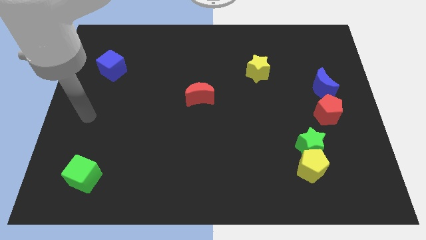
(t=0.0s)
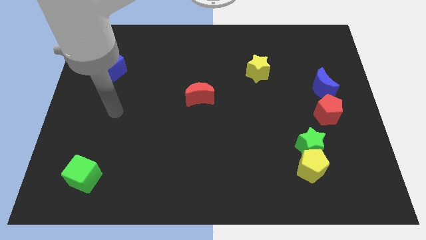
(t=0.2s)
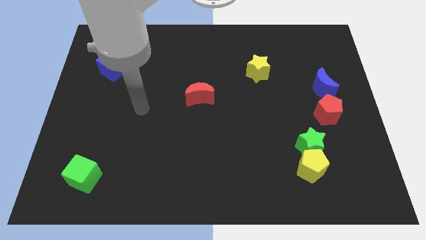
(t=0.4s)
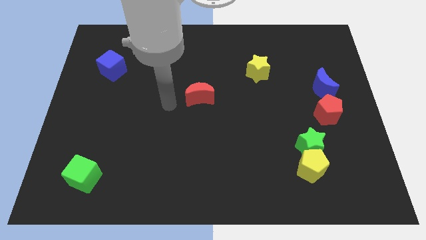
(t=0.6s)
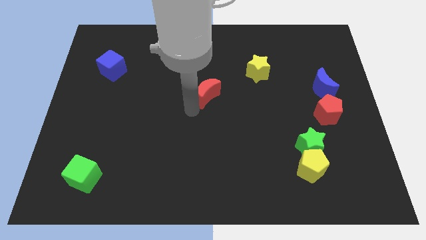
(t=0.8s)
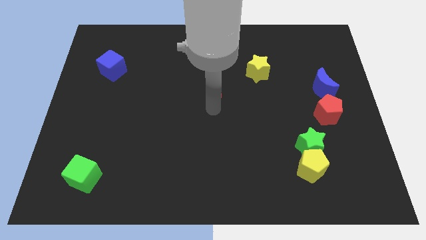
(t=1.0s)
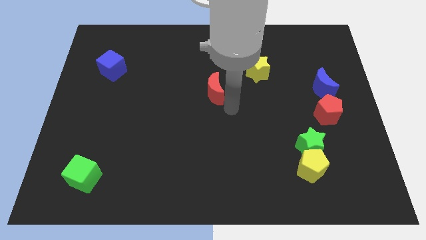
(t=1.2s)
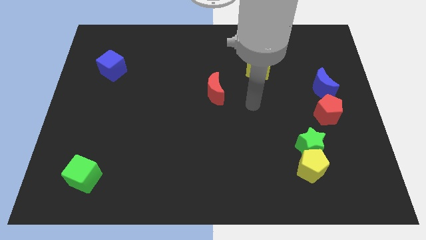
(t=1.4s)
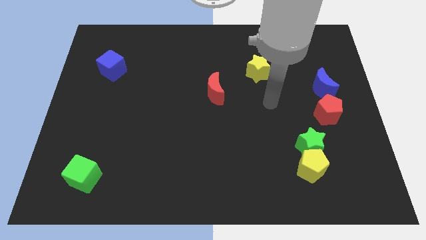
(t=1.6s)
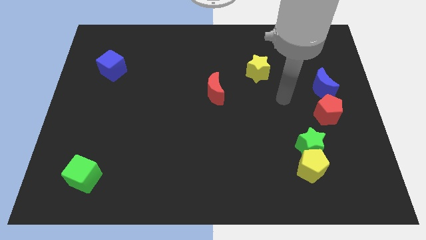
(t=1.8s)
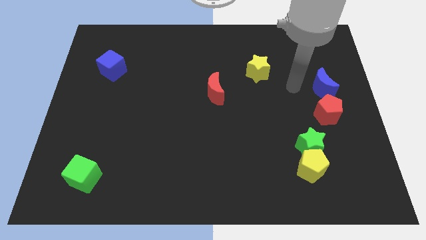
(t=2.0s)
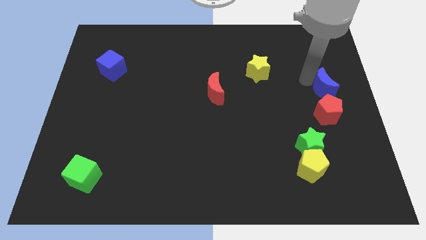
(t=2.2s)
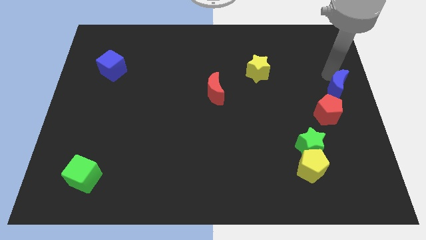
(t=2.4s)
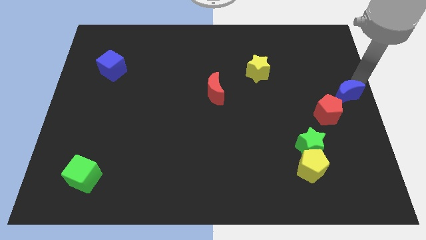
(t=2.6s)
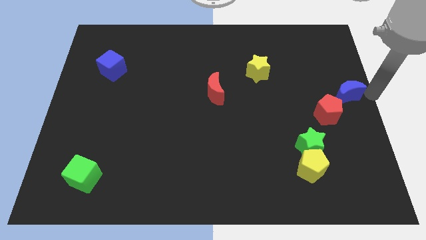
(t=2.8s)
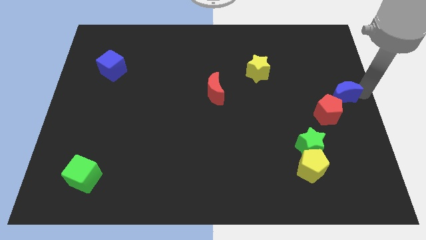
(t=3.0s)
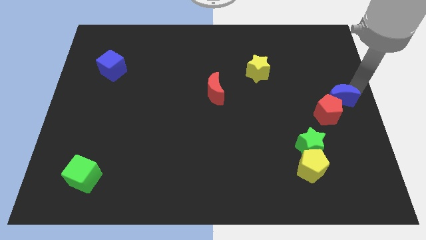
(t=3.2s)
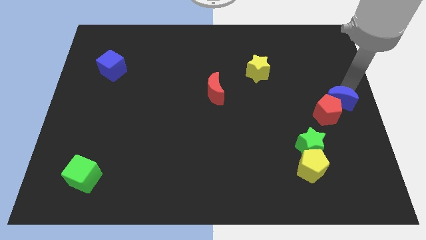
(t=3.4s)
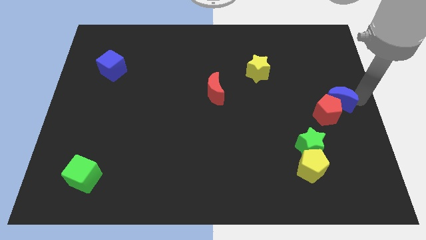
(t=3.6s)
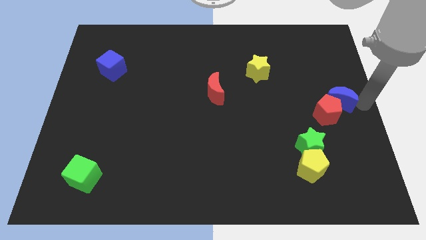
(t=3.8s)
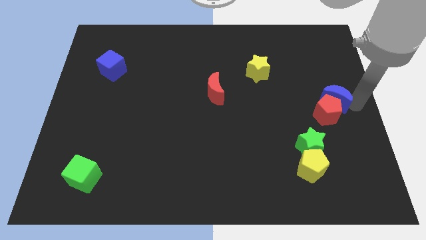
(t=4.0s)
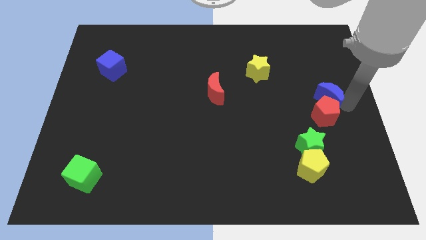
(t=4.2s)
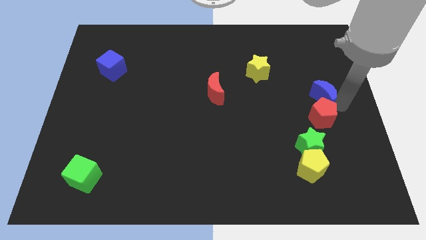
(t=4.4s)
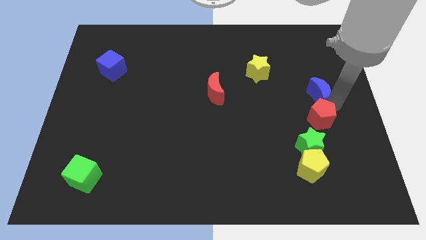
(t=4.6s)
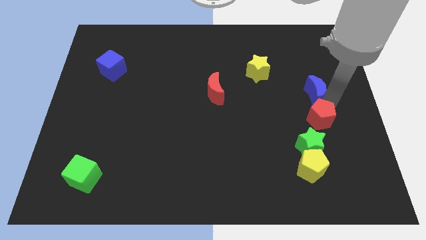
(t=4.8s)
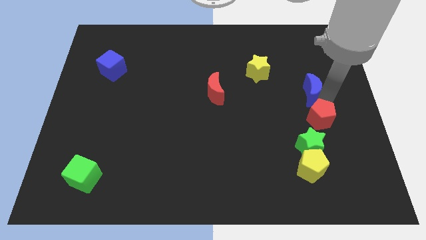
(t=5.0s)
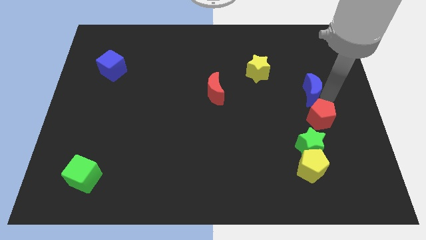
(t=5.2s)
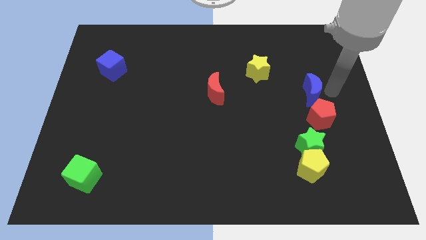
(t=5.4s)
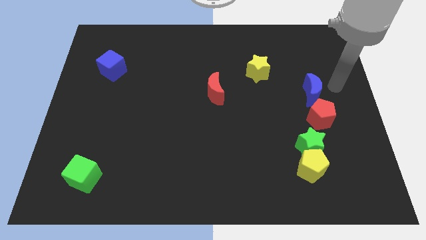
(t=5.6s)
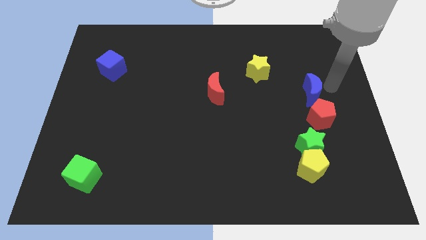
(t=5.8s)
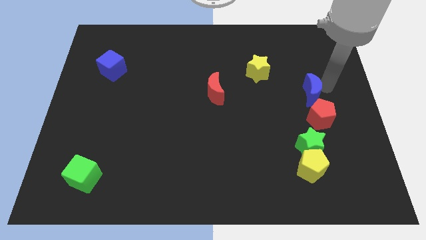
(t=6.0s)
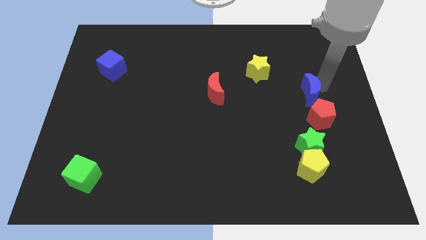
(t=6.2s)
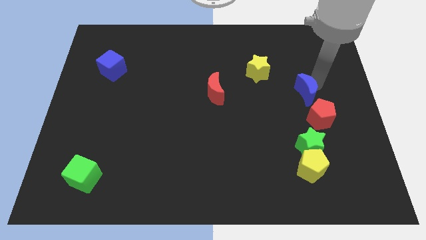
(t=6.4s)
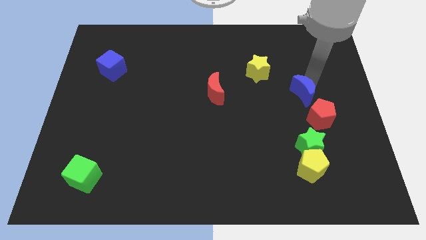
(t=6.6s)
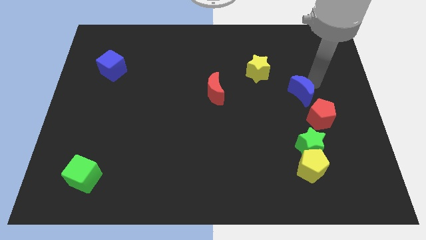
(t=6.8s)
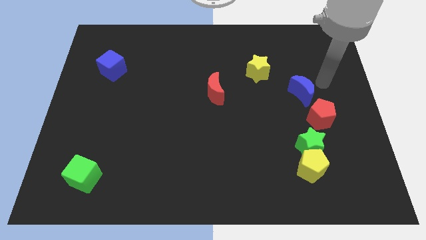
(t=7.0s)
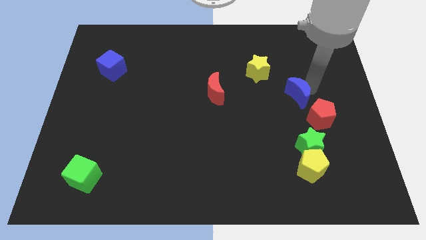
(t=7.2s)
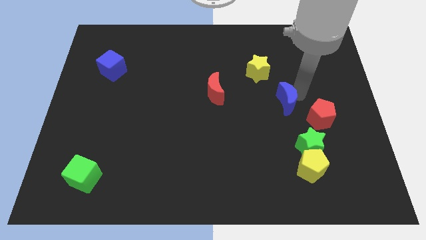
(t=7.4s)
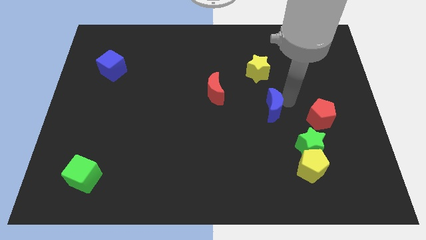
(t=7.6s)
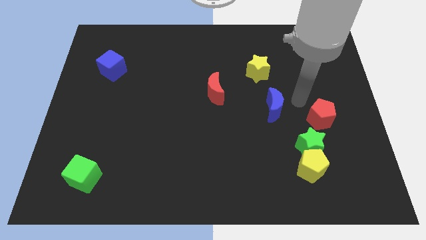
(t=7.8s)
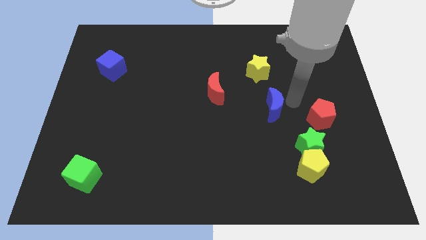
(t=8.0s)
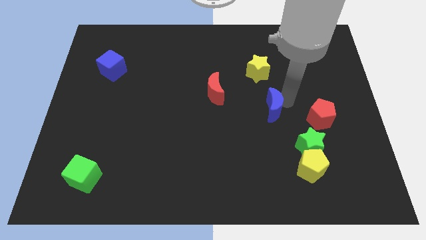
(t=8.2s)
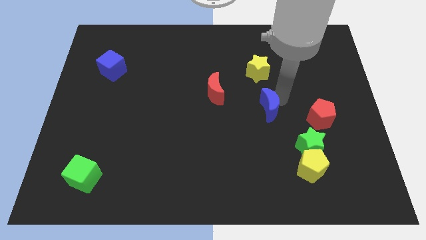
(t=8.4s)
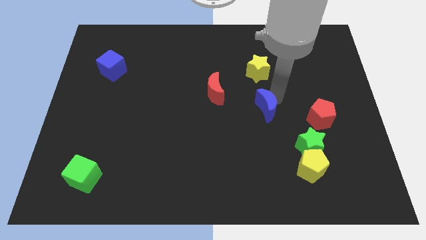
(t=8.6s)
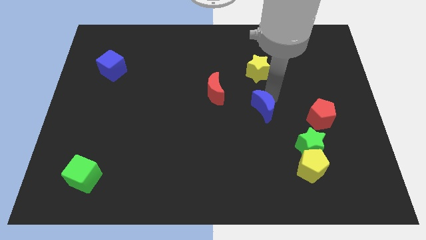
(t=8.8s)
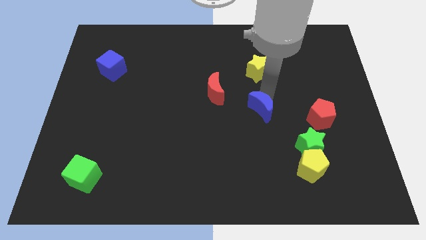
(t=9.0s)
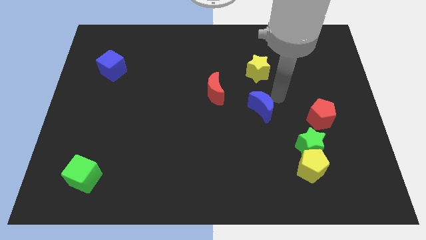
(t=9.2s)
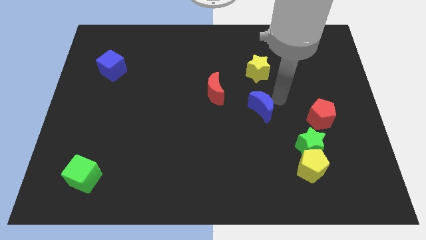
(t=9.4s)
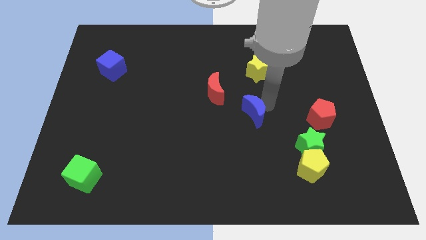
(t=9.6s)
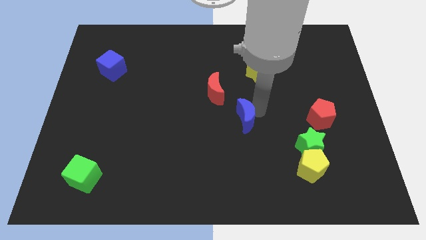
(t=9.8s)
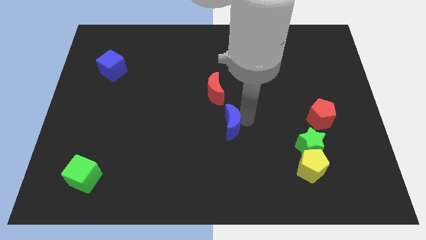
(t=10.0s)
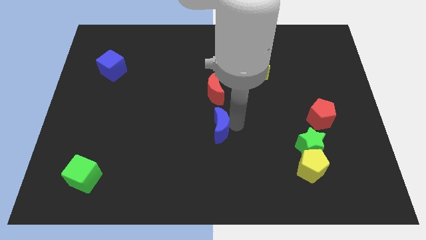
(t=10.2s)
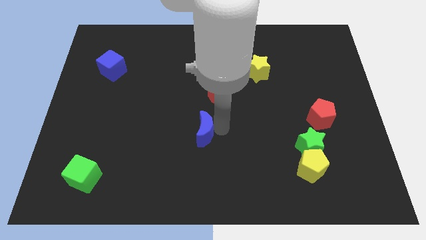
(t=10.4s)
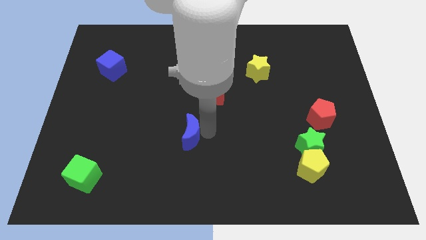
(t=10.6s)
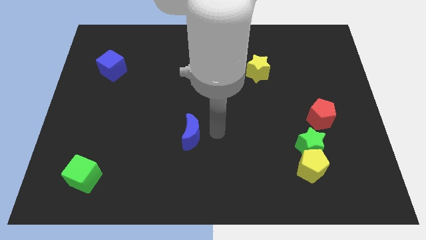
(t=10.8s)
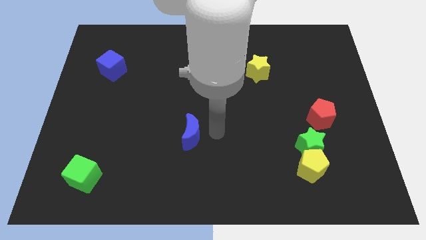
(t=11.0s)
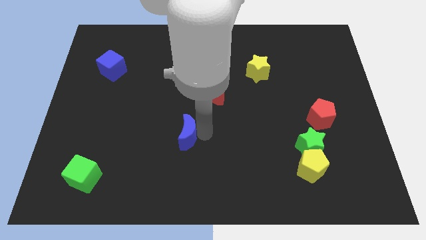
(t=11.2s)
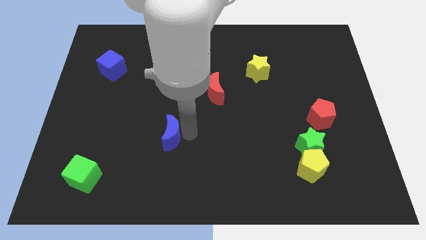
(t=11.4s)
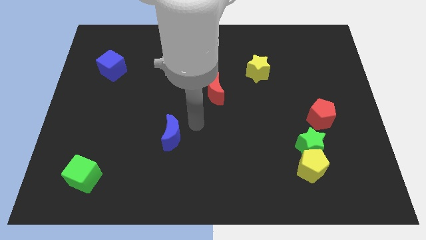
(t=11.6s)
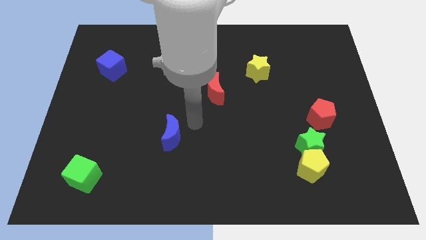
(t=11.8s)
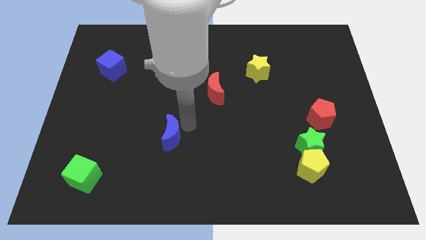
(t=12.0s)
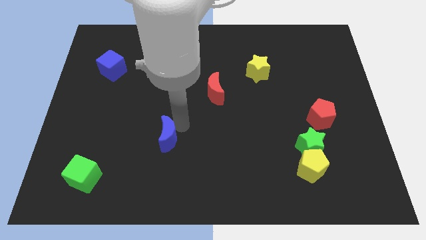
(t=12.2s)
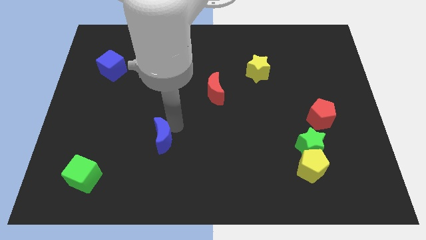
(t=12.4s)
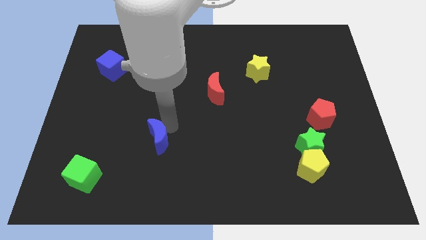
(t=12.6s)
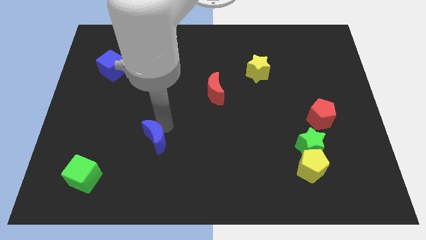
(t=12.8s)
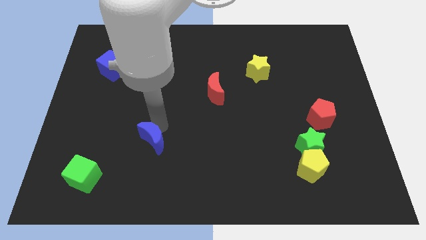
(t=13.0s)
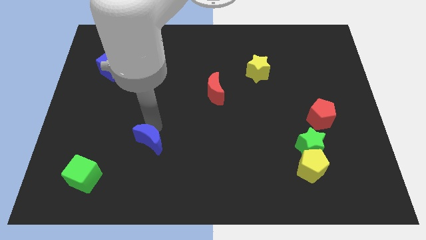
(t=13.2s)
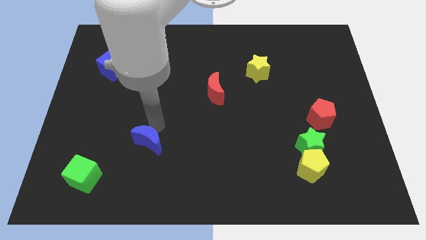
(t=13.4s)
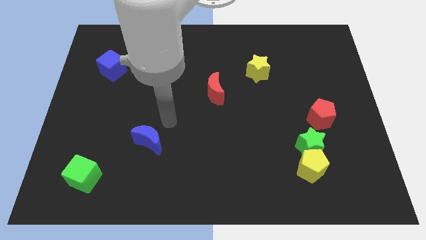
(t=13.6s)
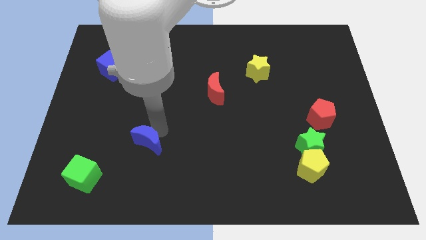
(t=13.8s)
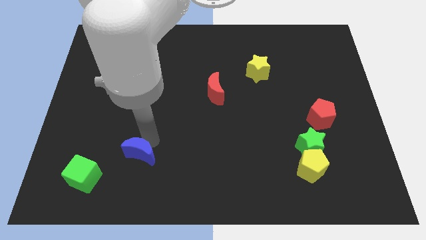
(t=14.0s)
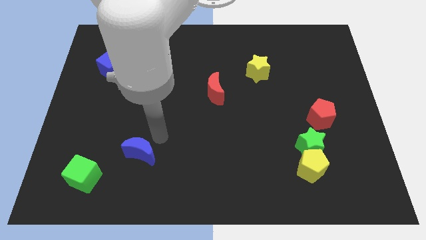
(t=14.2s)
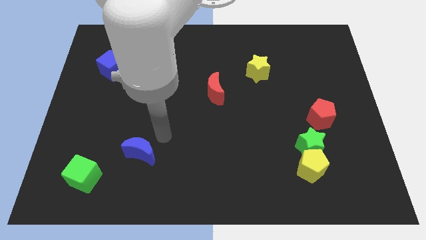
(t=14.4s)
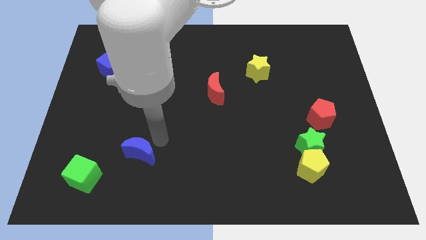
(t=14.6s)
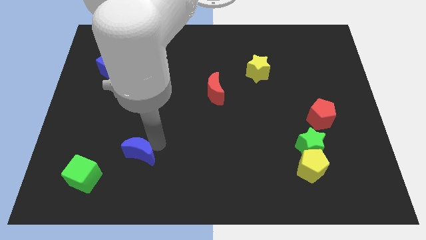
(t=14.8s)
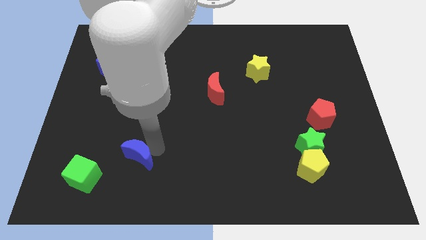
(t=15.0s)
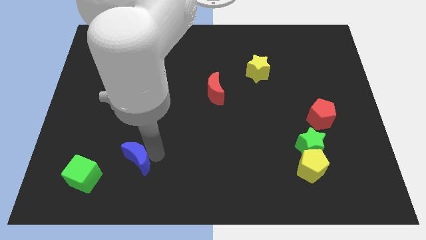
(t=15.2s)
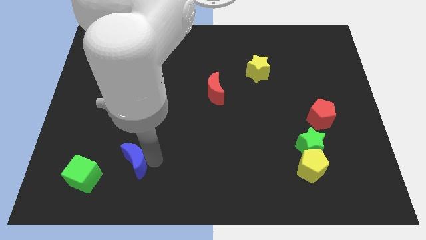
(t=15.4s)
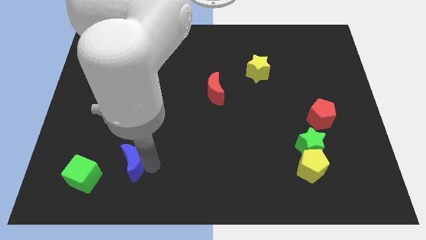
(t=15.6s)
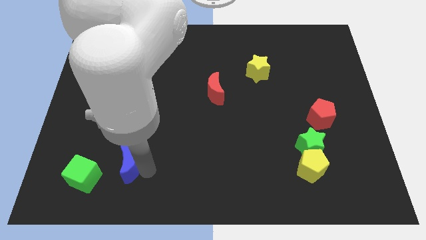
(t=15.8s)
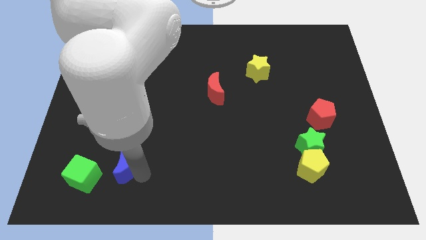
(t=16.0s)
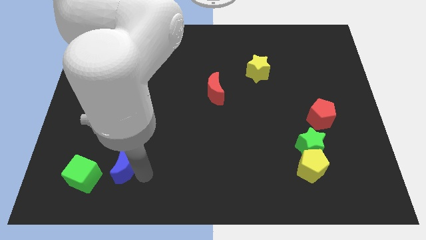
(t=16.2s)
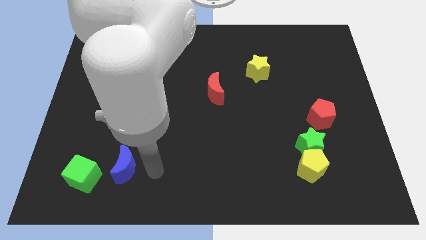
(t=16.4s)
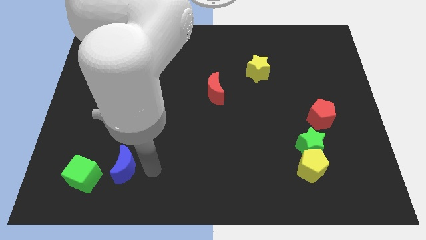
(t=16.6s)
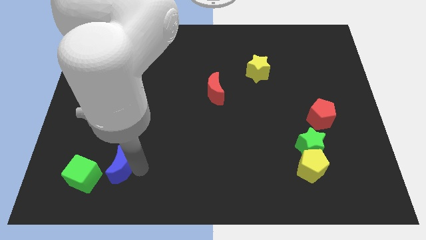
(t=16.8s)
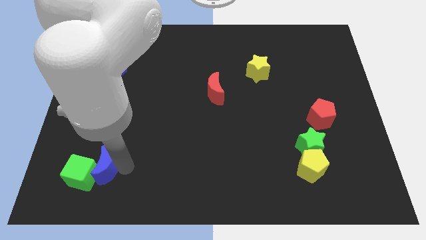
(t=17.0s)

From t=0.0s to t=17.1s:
move the blue moon next to the green cube
